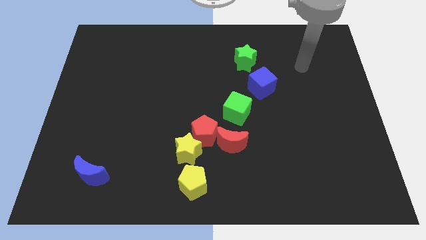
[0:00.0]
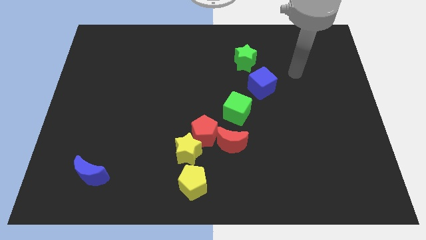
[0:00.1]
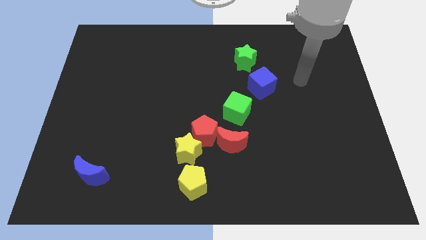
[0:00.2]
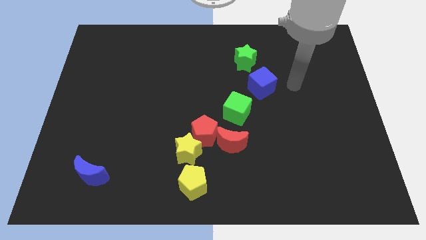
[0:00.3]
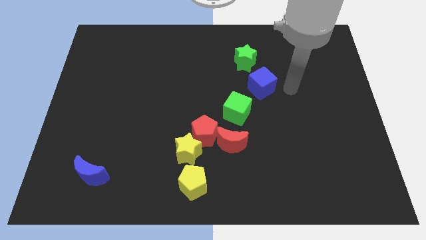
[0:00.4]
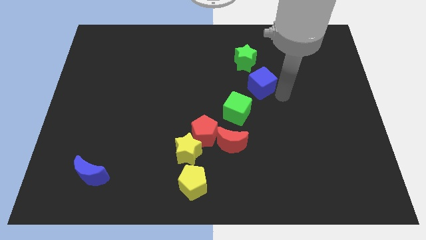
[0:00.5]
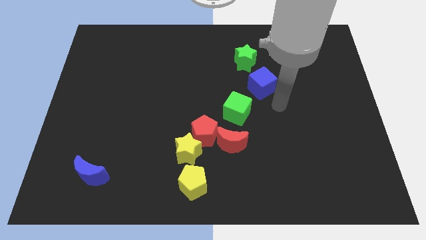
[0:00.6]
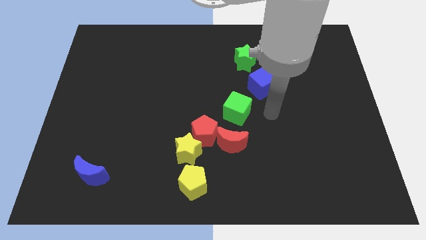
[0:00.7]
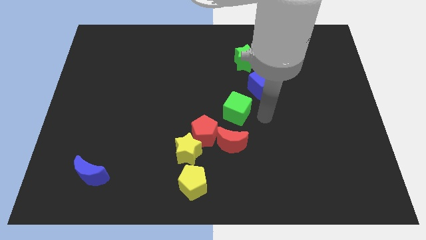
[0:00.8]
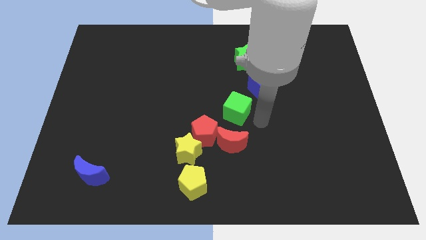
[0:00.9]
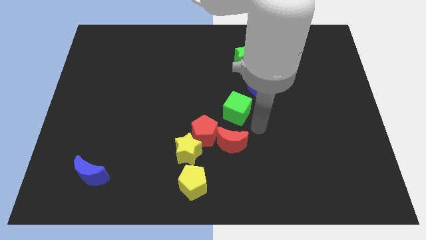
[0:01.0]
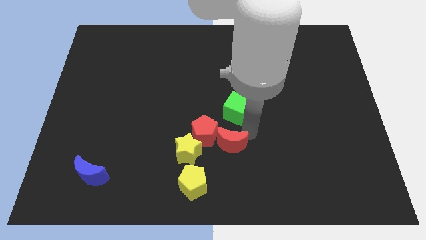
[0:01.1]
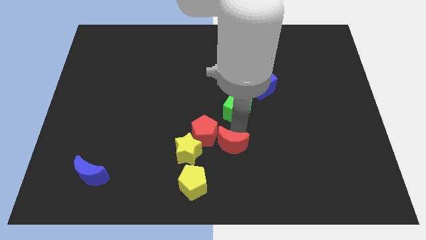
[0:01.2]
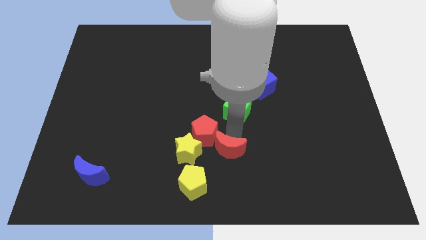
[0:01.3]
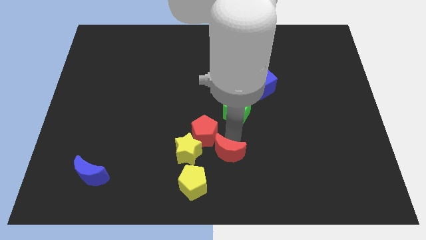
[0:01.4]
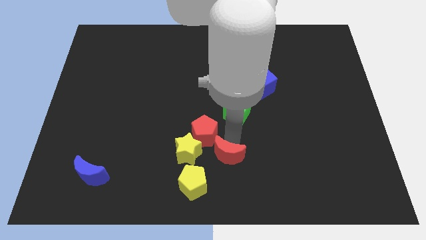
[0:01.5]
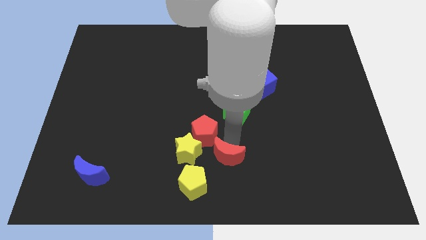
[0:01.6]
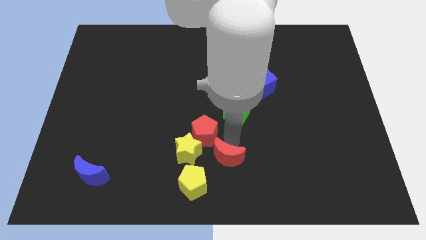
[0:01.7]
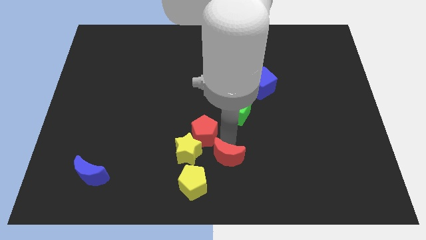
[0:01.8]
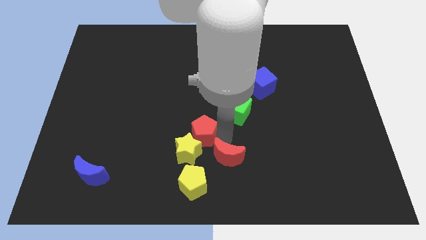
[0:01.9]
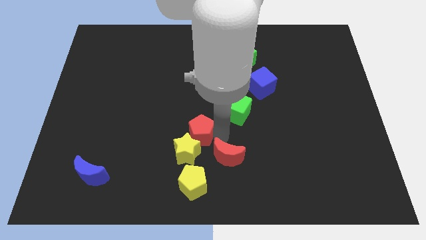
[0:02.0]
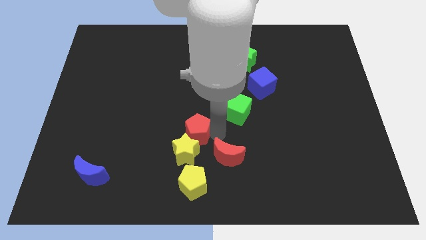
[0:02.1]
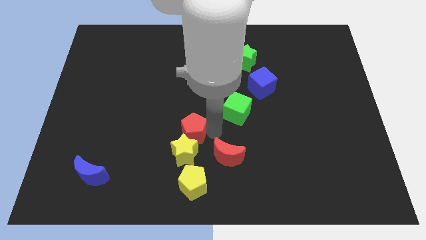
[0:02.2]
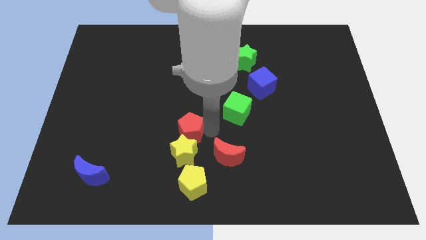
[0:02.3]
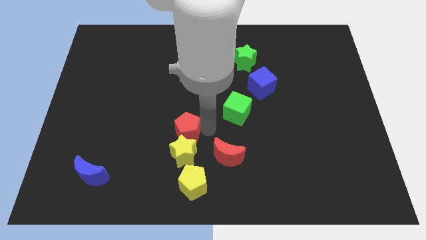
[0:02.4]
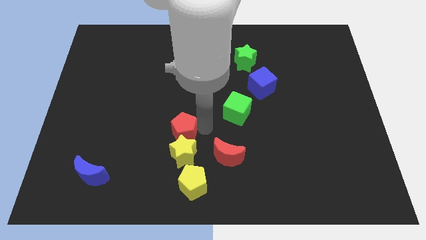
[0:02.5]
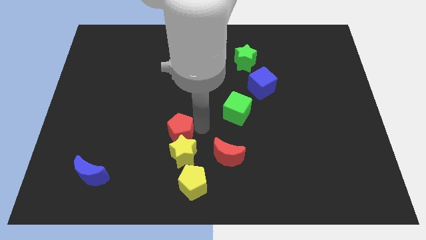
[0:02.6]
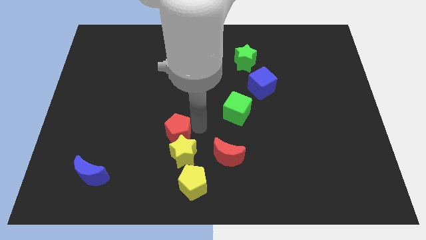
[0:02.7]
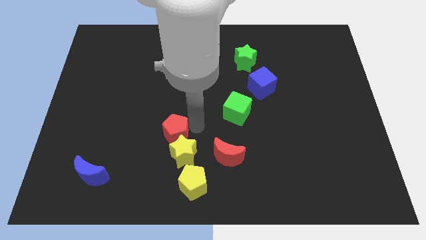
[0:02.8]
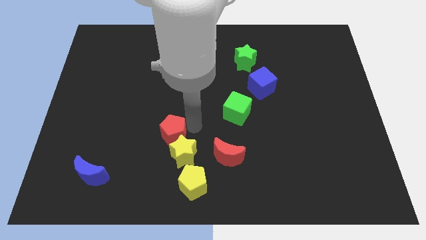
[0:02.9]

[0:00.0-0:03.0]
move the red pentagon away from the group of blocks

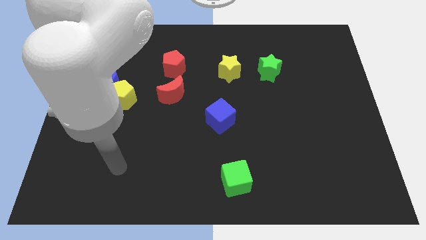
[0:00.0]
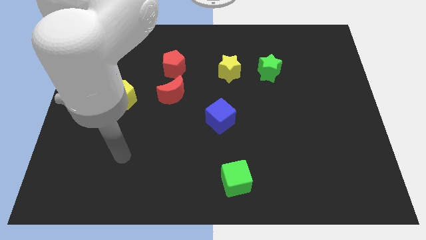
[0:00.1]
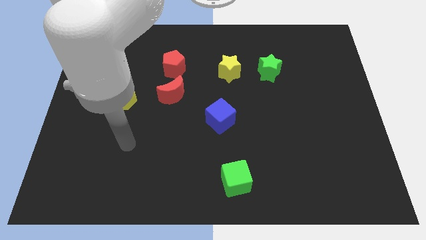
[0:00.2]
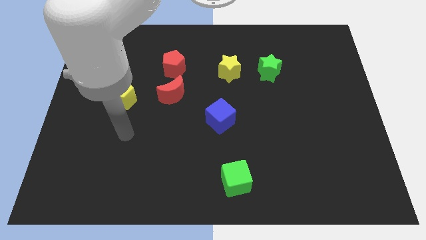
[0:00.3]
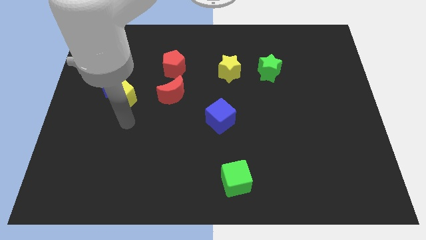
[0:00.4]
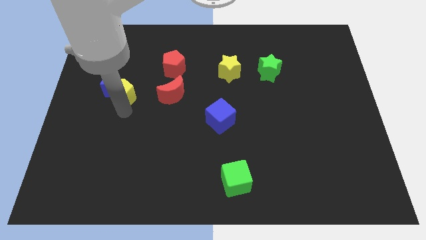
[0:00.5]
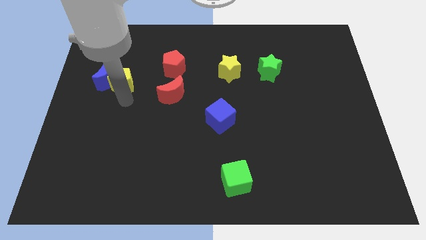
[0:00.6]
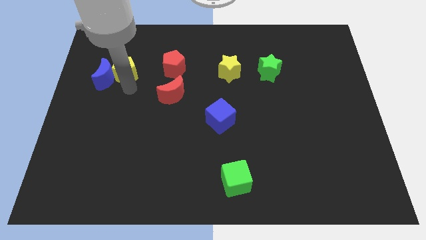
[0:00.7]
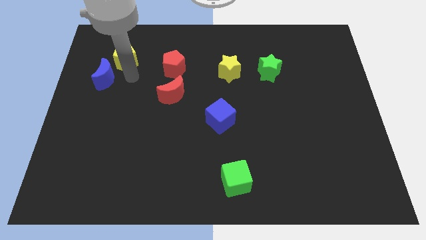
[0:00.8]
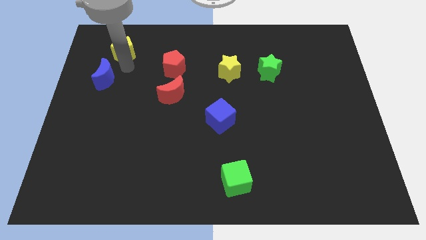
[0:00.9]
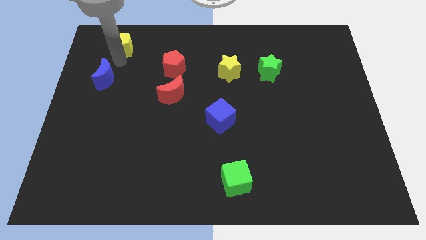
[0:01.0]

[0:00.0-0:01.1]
pull the blue moon apart from the yellow pentagon

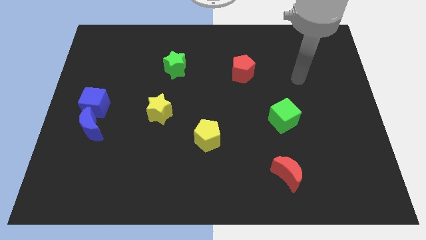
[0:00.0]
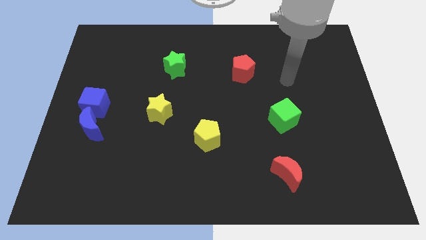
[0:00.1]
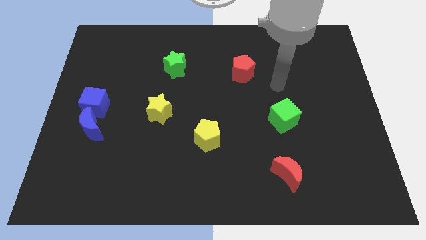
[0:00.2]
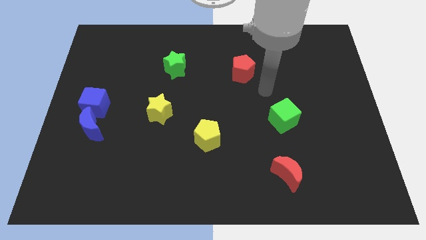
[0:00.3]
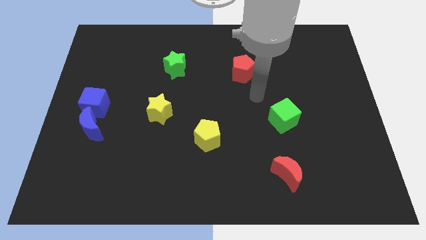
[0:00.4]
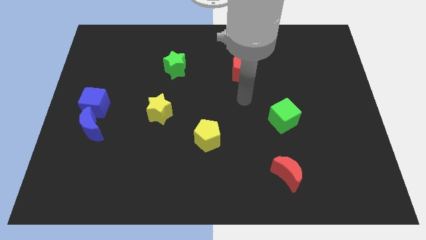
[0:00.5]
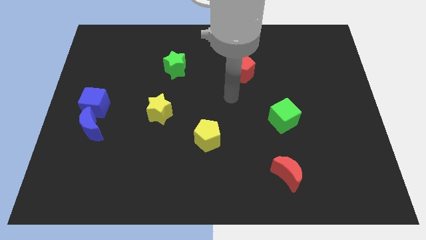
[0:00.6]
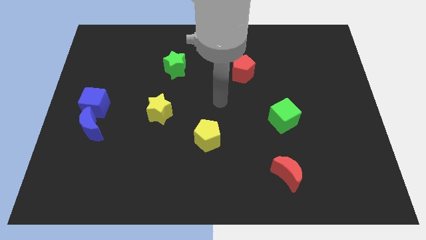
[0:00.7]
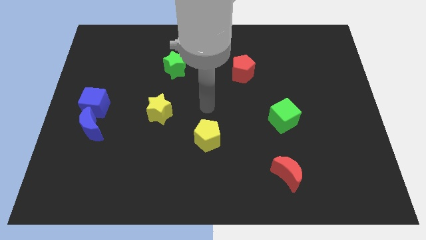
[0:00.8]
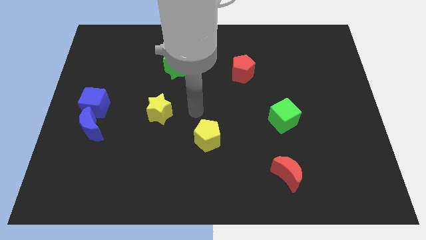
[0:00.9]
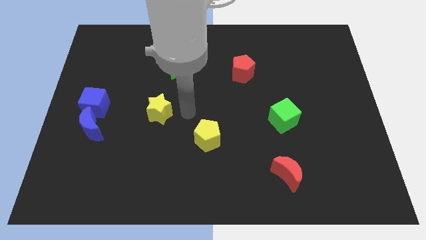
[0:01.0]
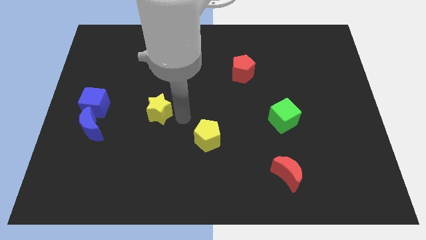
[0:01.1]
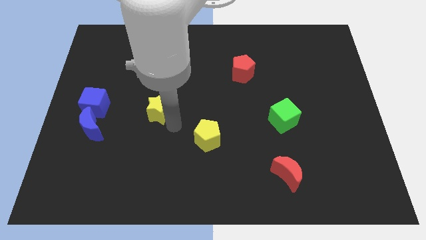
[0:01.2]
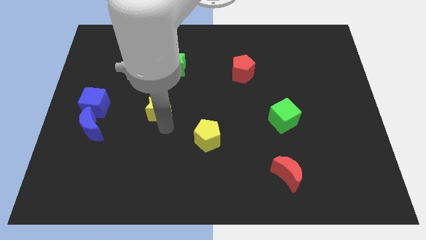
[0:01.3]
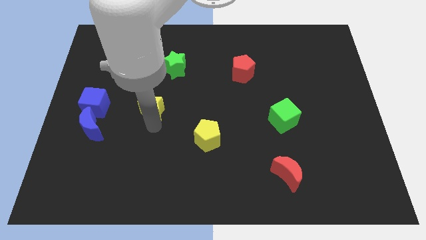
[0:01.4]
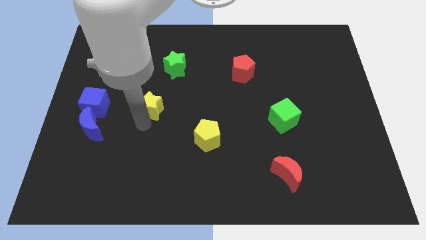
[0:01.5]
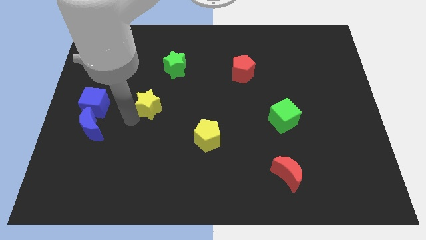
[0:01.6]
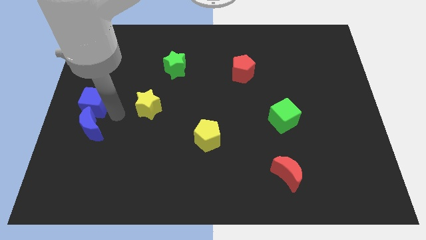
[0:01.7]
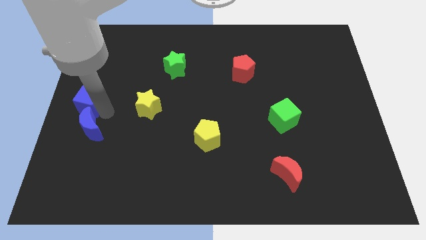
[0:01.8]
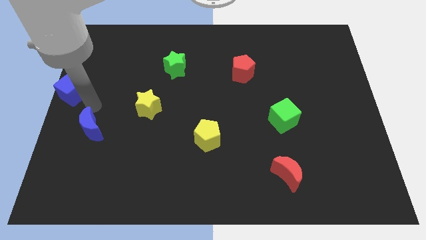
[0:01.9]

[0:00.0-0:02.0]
separate the blue moon from the blue cube

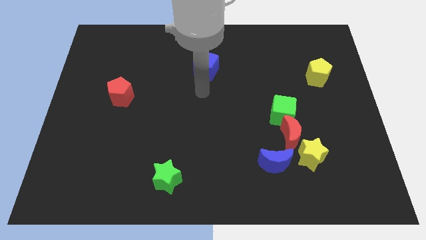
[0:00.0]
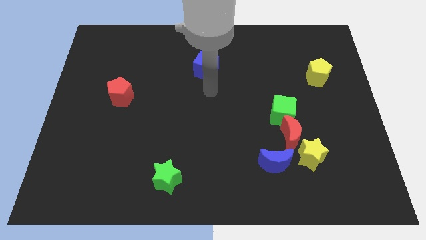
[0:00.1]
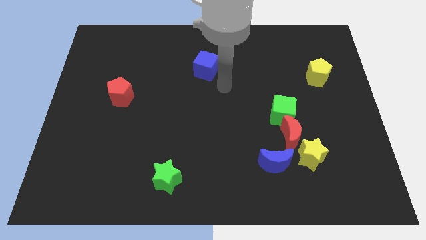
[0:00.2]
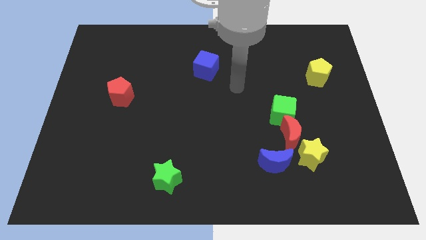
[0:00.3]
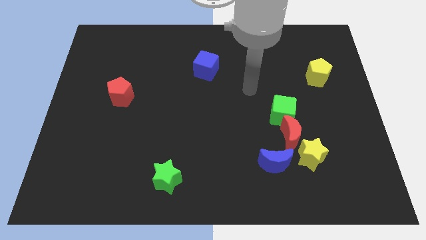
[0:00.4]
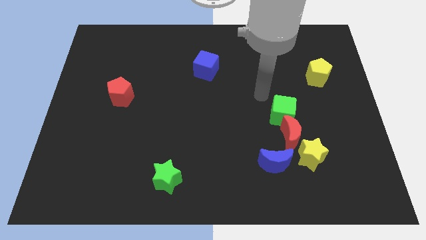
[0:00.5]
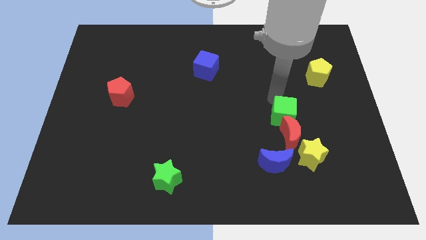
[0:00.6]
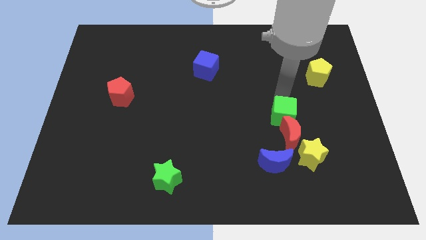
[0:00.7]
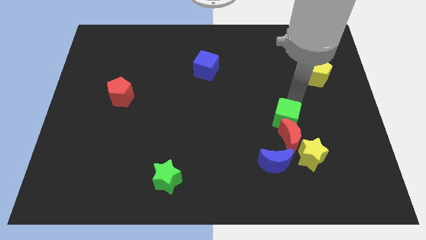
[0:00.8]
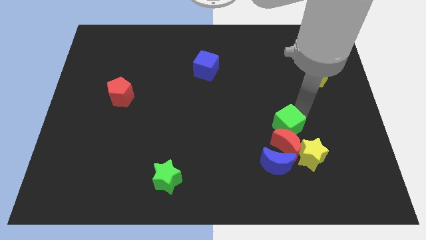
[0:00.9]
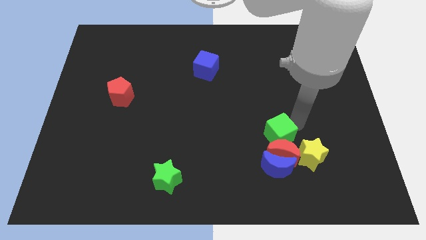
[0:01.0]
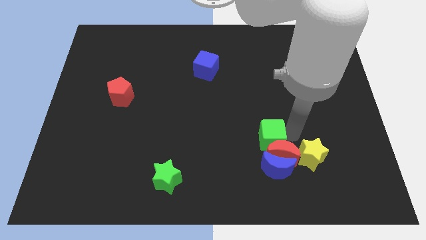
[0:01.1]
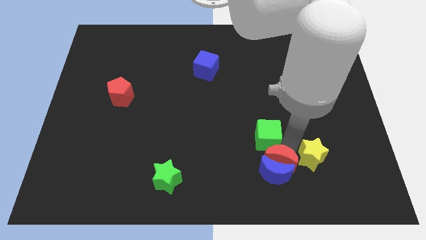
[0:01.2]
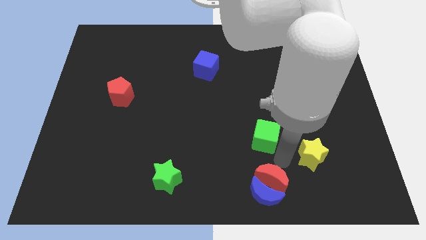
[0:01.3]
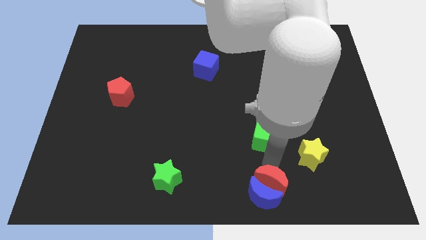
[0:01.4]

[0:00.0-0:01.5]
pull the green cube apart from the red moon

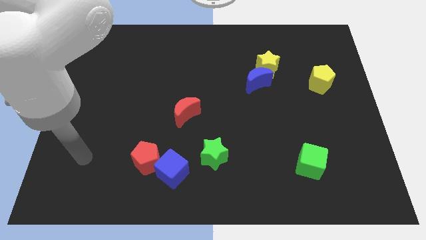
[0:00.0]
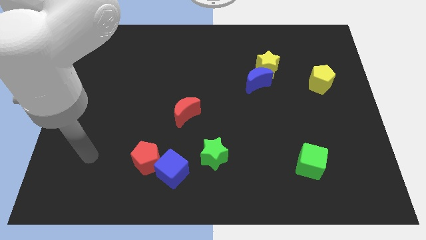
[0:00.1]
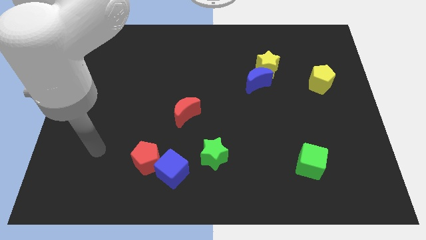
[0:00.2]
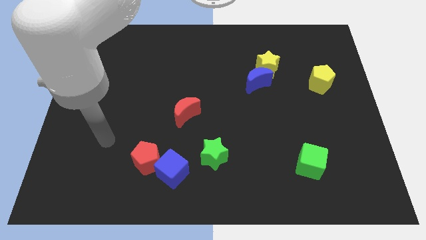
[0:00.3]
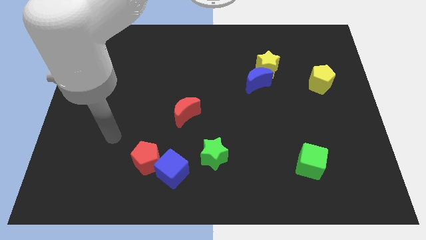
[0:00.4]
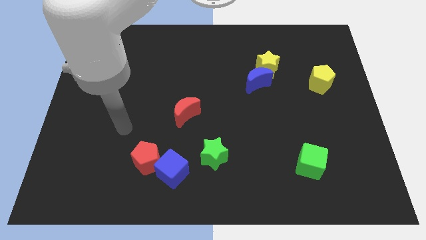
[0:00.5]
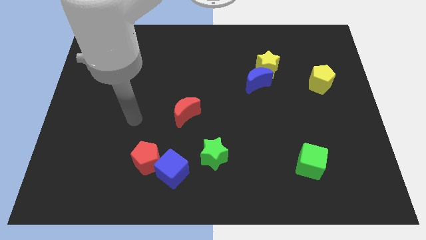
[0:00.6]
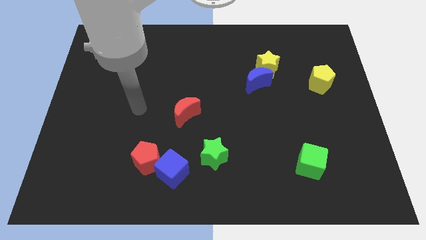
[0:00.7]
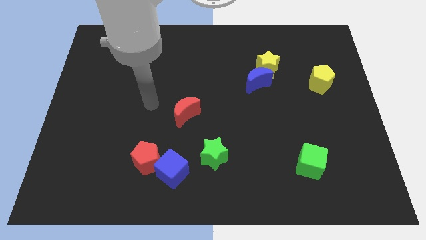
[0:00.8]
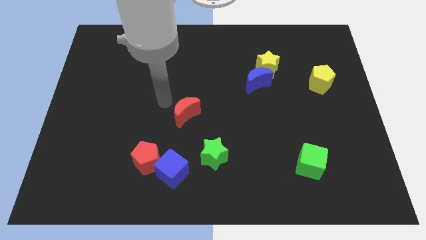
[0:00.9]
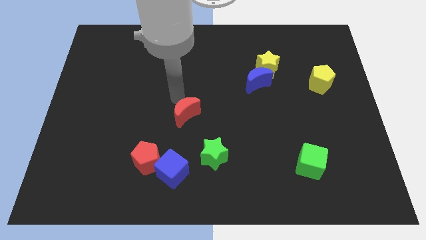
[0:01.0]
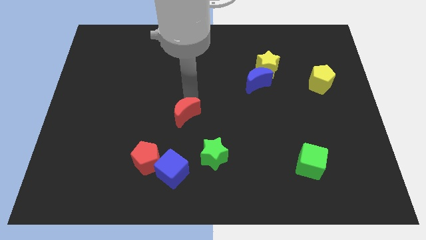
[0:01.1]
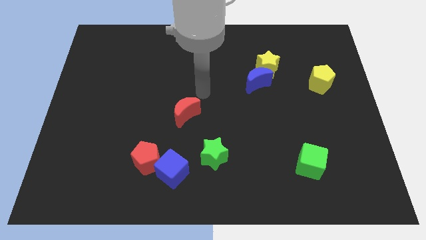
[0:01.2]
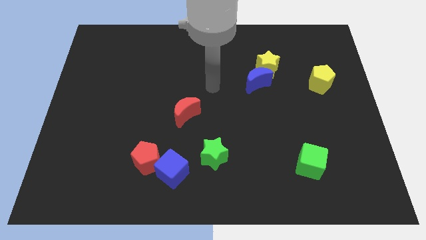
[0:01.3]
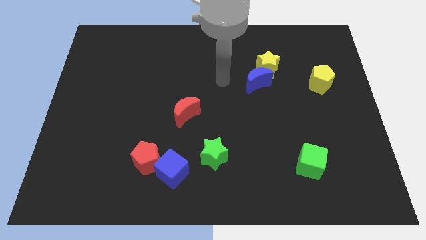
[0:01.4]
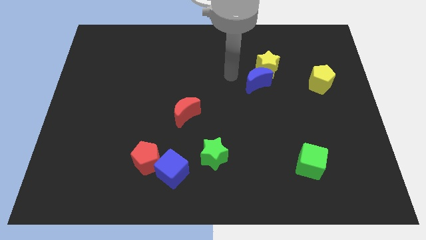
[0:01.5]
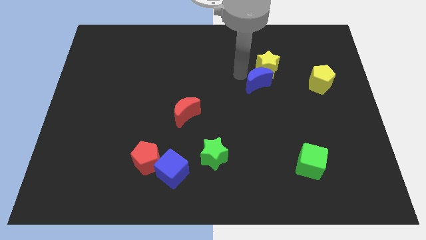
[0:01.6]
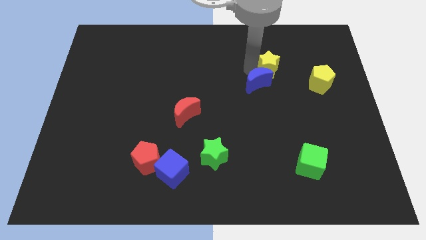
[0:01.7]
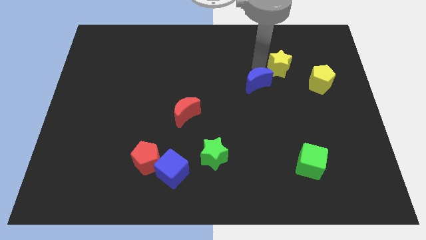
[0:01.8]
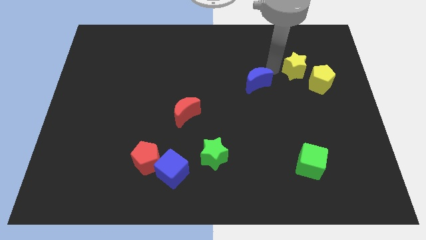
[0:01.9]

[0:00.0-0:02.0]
pull the blue moon apart from the yellow star
